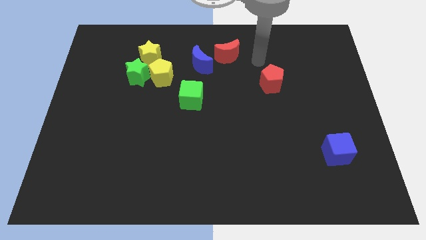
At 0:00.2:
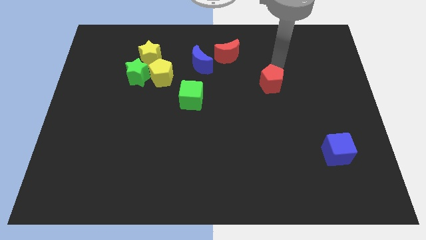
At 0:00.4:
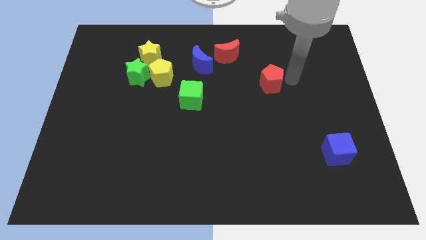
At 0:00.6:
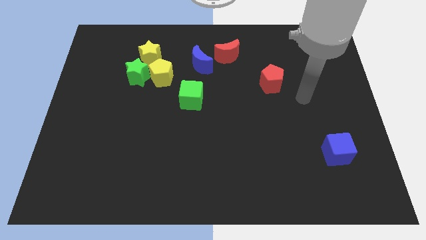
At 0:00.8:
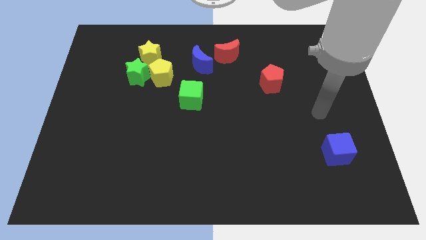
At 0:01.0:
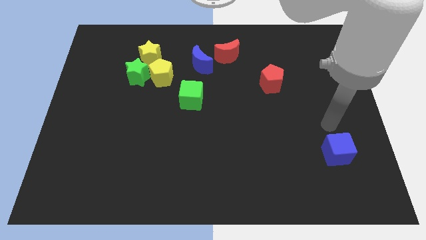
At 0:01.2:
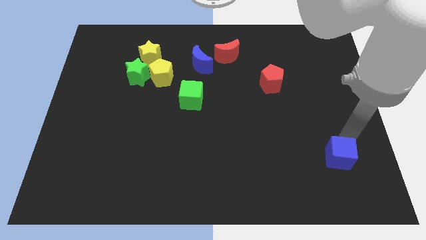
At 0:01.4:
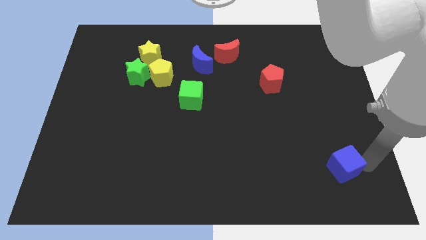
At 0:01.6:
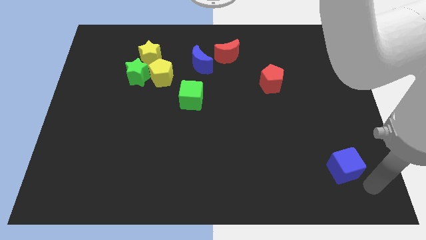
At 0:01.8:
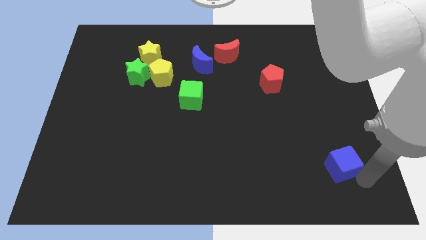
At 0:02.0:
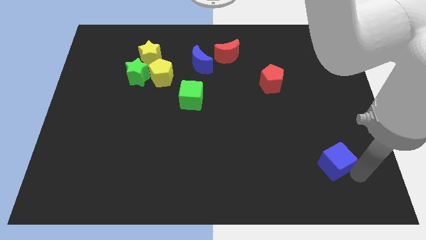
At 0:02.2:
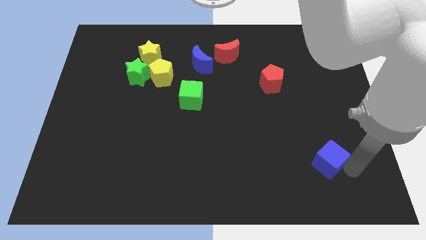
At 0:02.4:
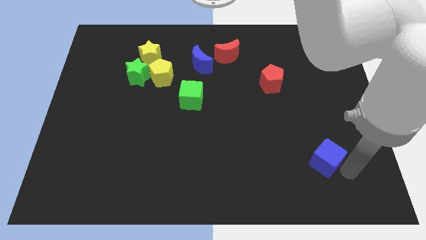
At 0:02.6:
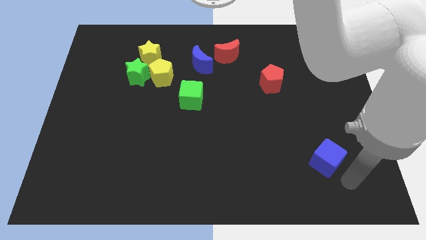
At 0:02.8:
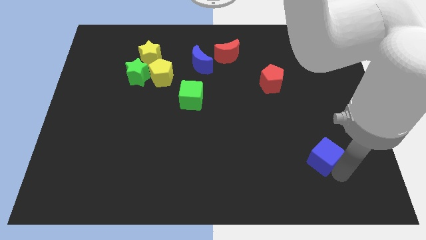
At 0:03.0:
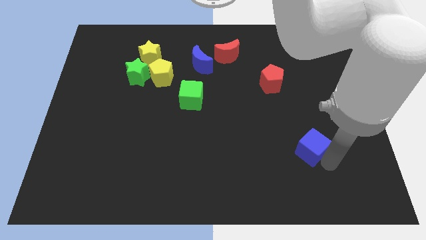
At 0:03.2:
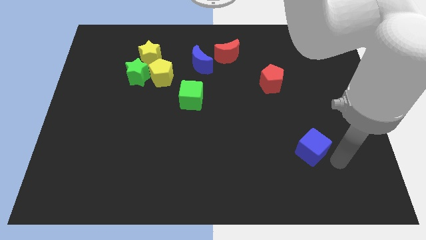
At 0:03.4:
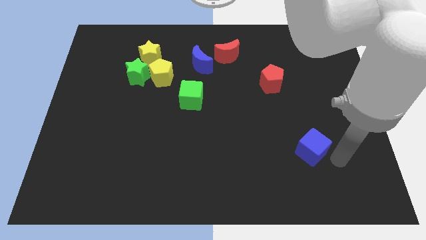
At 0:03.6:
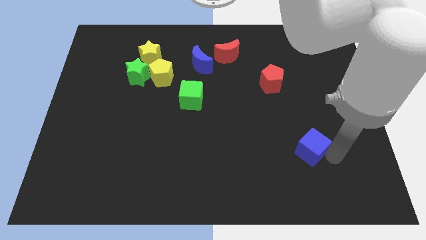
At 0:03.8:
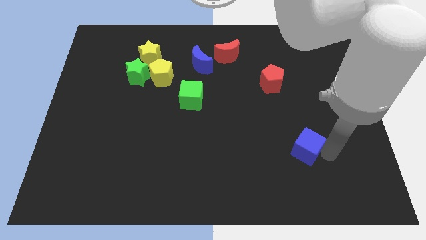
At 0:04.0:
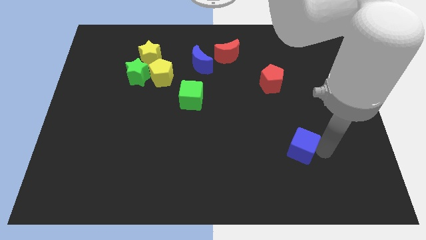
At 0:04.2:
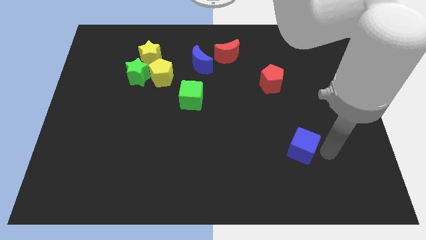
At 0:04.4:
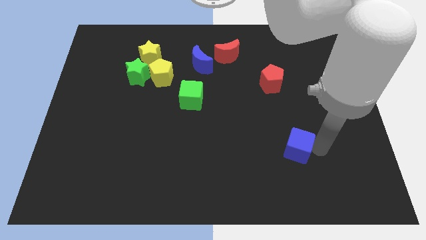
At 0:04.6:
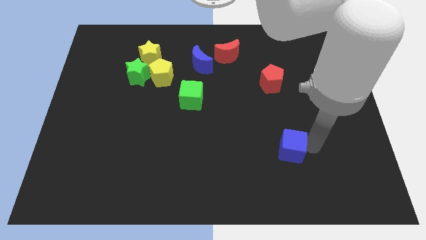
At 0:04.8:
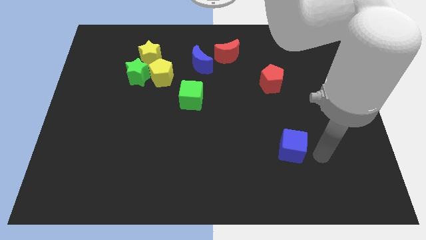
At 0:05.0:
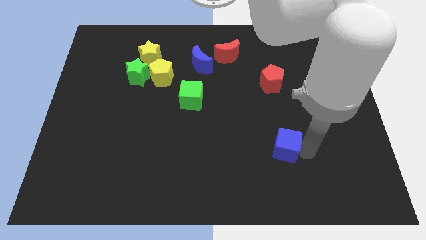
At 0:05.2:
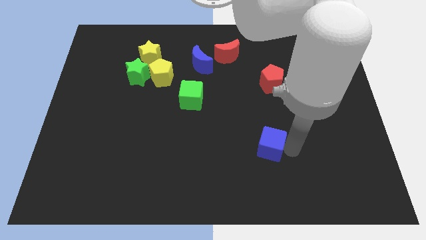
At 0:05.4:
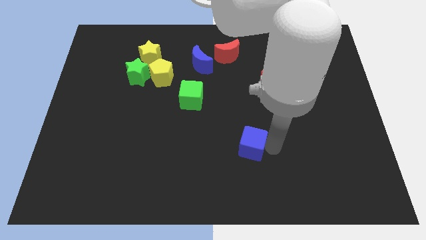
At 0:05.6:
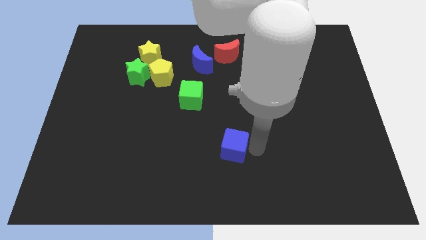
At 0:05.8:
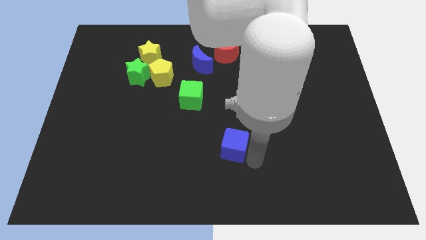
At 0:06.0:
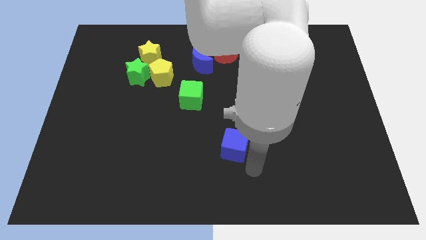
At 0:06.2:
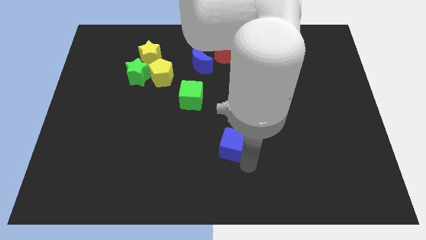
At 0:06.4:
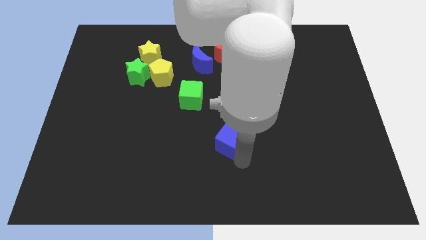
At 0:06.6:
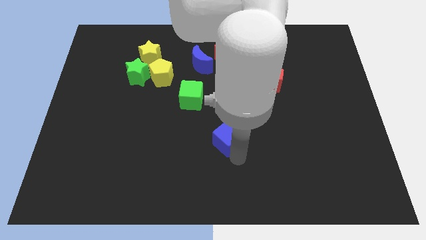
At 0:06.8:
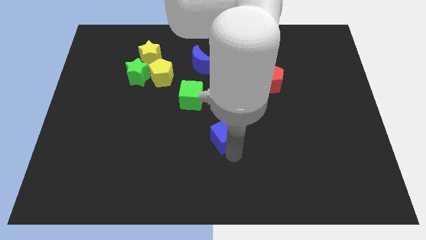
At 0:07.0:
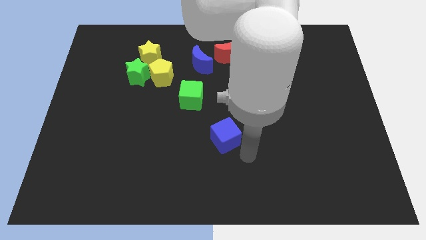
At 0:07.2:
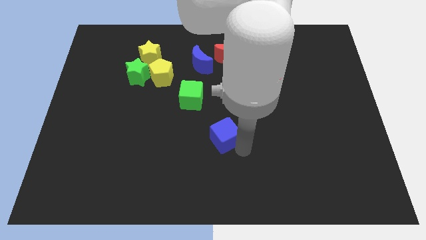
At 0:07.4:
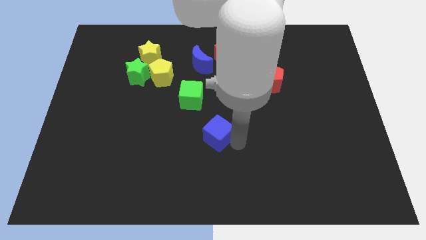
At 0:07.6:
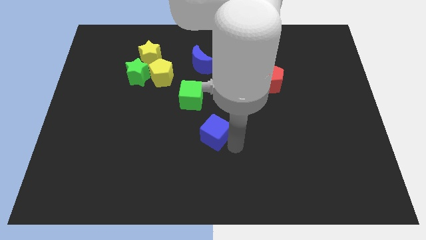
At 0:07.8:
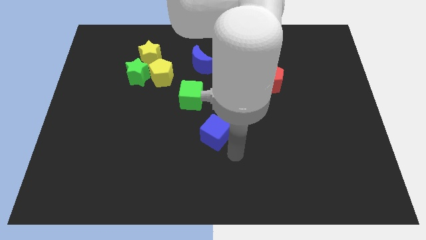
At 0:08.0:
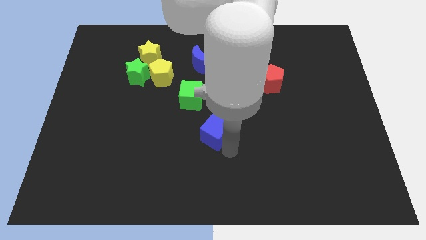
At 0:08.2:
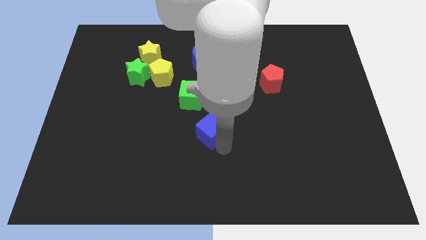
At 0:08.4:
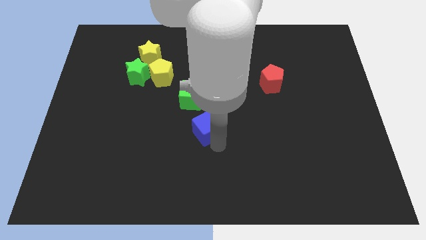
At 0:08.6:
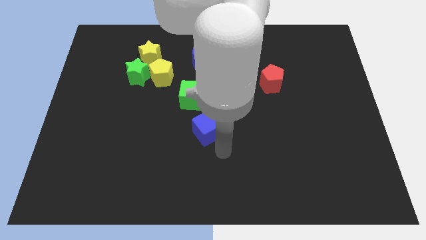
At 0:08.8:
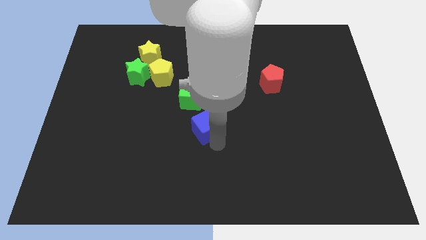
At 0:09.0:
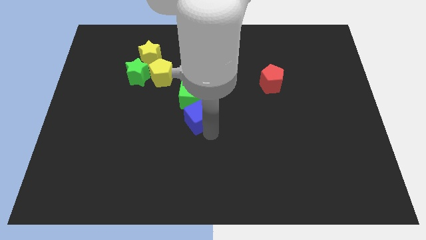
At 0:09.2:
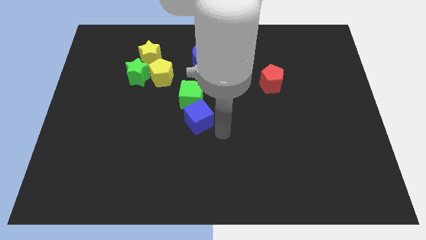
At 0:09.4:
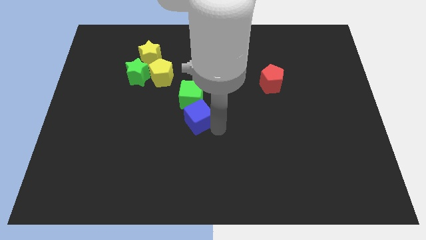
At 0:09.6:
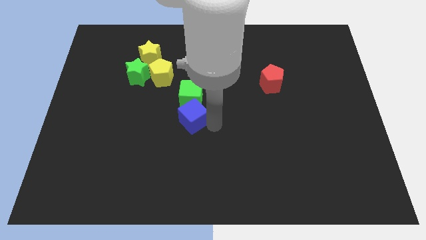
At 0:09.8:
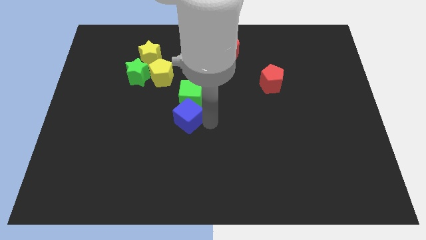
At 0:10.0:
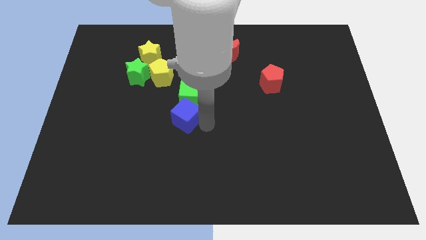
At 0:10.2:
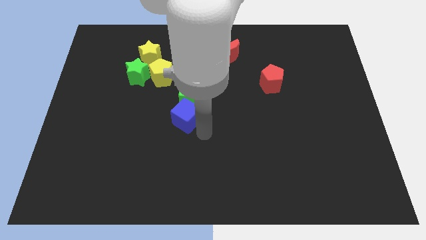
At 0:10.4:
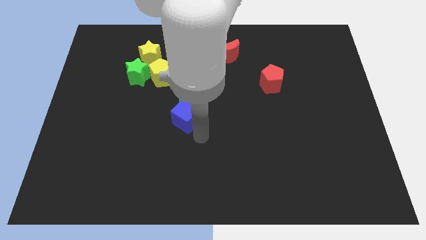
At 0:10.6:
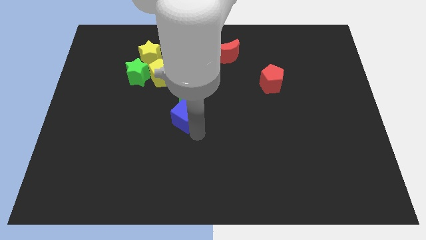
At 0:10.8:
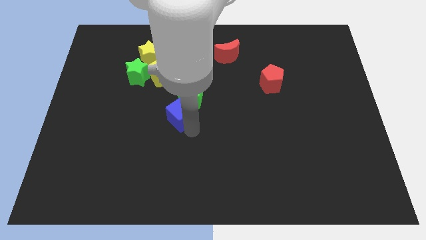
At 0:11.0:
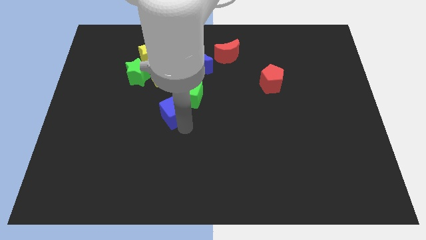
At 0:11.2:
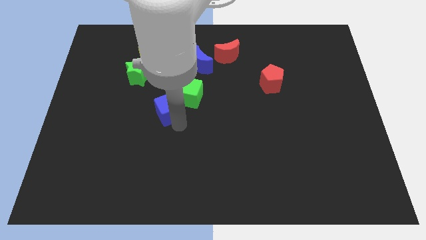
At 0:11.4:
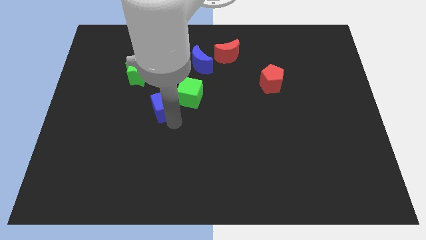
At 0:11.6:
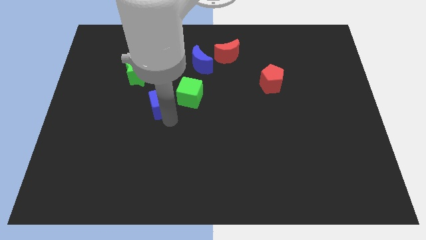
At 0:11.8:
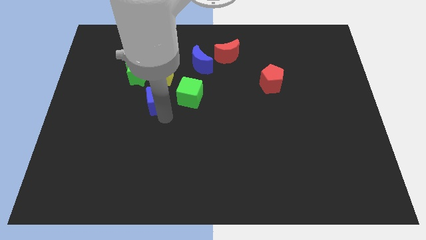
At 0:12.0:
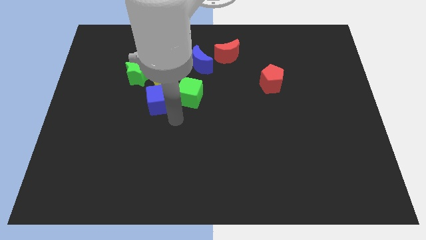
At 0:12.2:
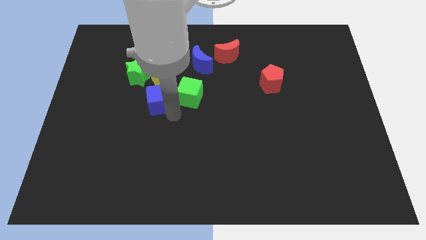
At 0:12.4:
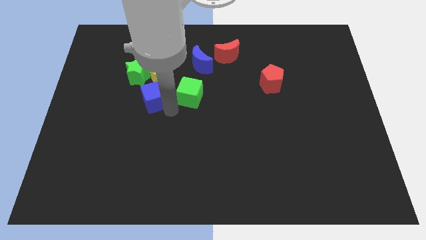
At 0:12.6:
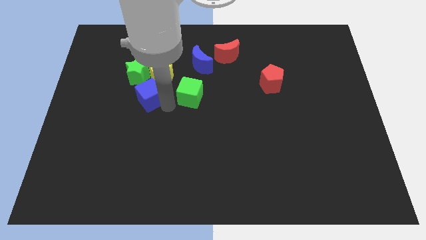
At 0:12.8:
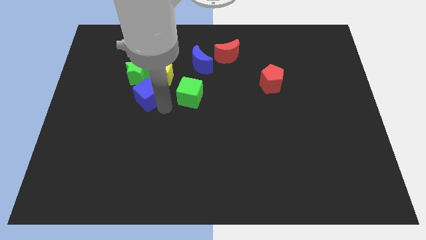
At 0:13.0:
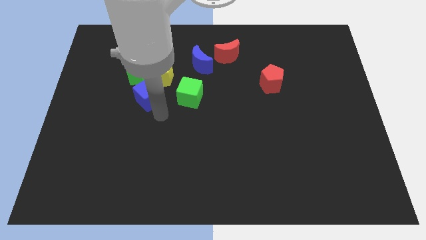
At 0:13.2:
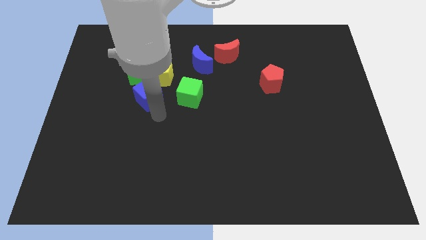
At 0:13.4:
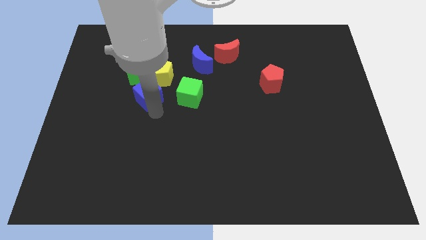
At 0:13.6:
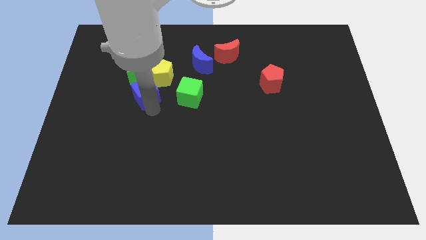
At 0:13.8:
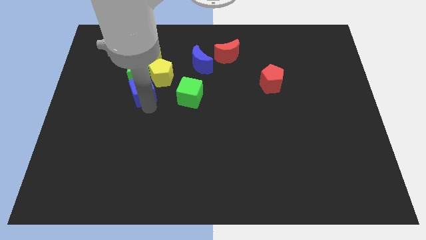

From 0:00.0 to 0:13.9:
put the blue cube to the green star
